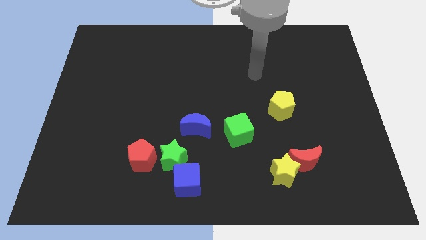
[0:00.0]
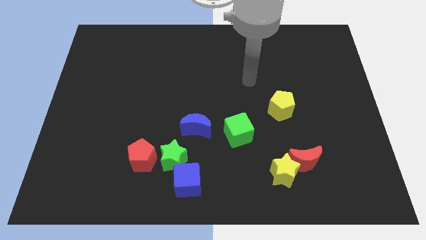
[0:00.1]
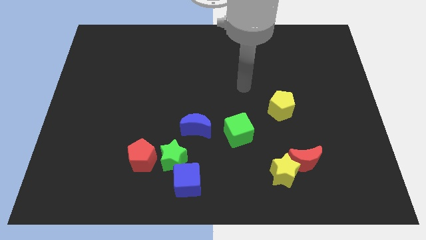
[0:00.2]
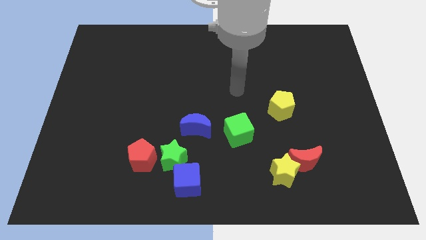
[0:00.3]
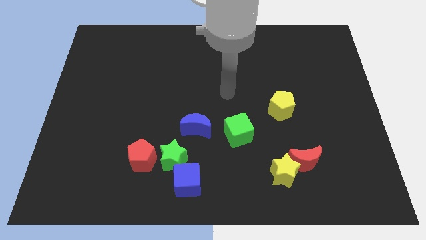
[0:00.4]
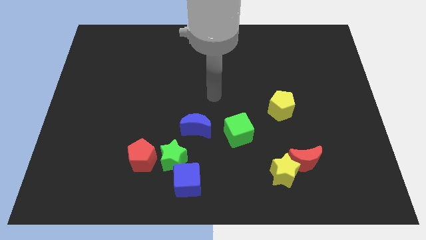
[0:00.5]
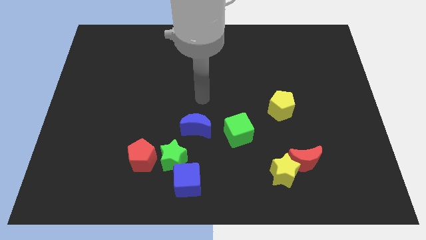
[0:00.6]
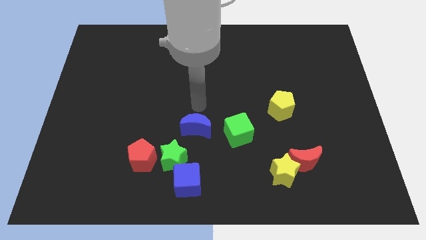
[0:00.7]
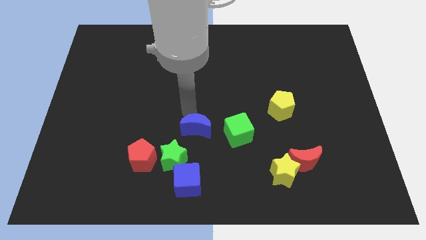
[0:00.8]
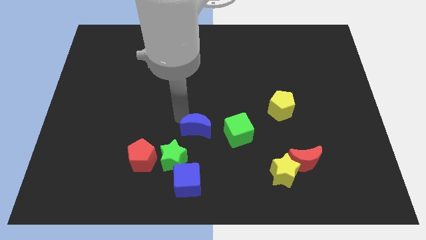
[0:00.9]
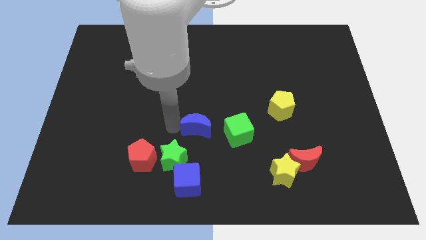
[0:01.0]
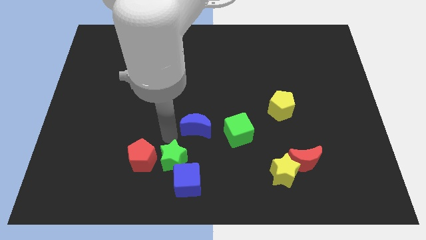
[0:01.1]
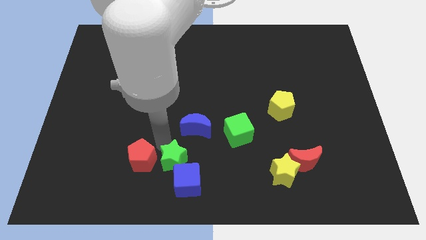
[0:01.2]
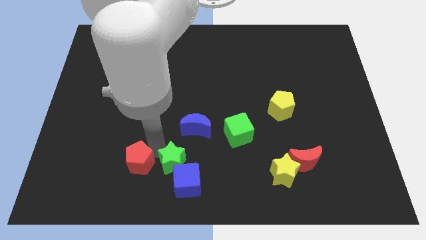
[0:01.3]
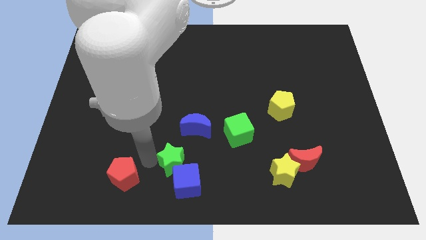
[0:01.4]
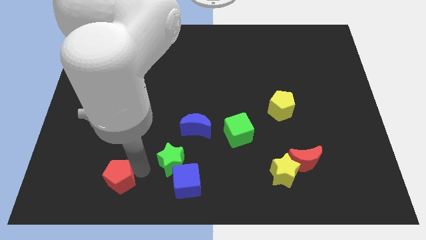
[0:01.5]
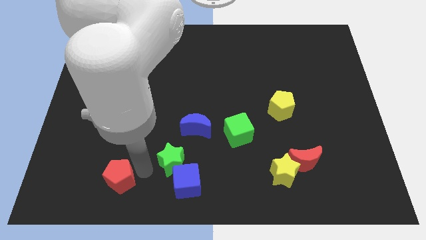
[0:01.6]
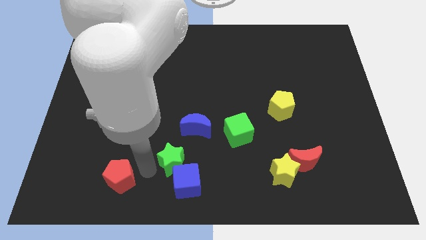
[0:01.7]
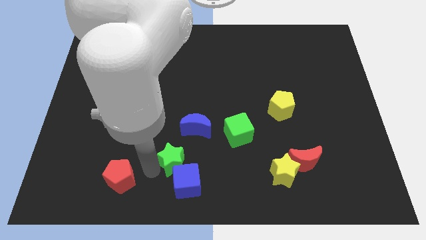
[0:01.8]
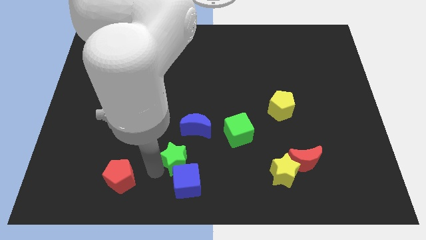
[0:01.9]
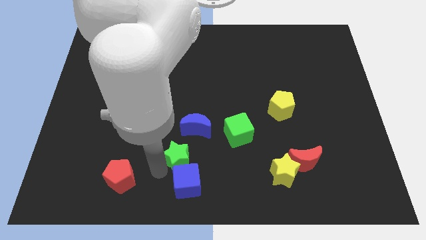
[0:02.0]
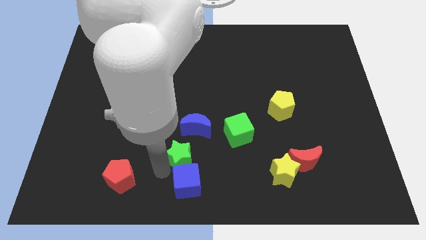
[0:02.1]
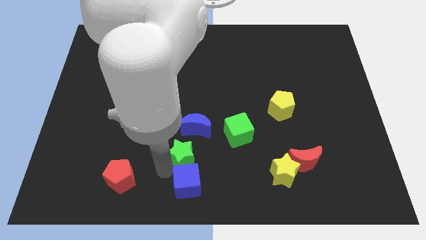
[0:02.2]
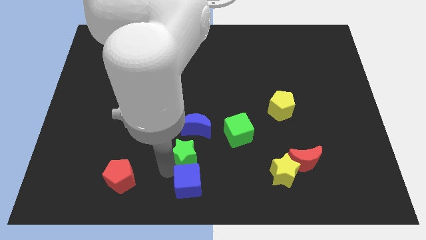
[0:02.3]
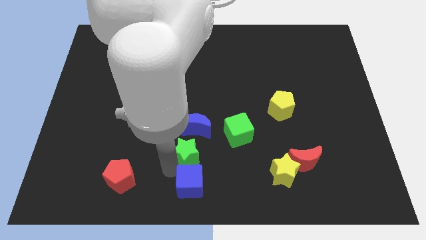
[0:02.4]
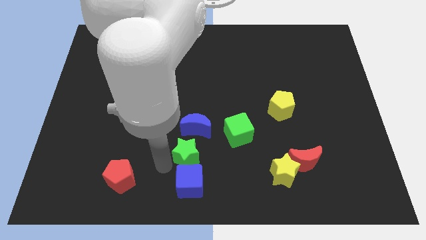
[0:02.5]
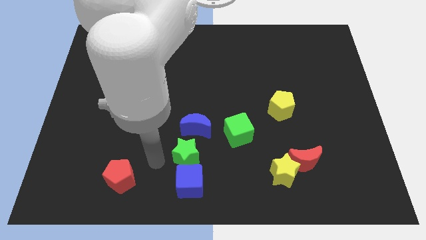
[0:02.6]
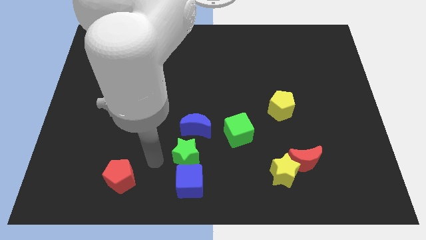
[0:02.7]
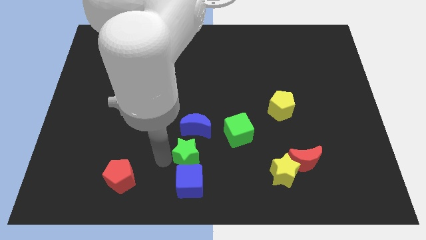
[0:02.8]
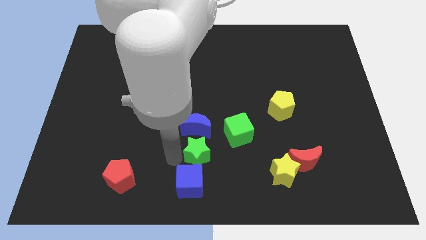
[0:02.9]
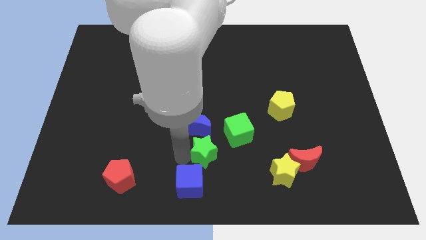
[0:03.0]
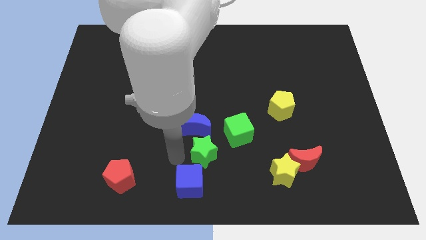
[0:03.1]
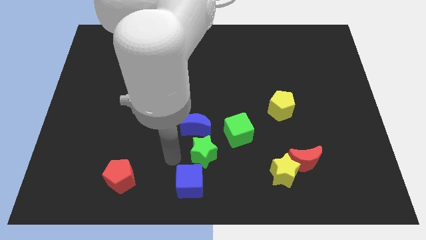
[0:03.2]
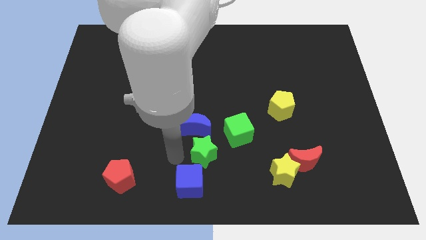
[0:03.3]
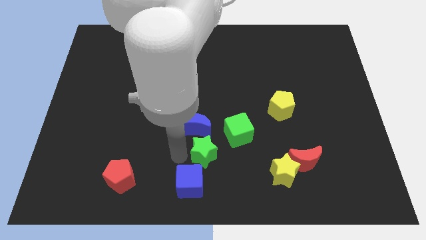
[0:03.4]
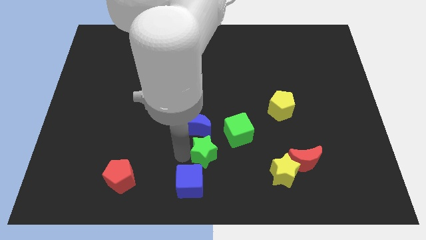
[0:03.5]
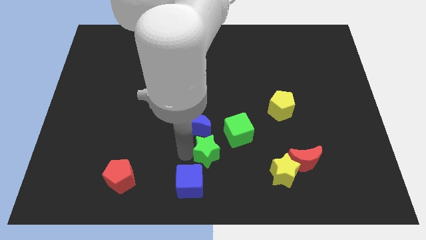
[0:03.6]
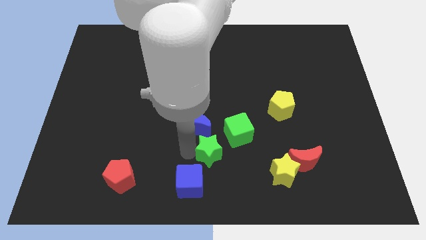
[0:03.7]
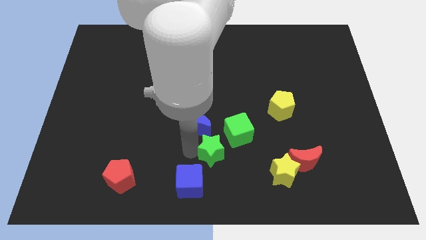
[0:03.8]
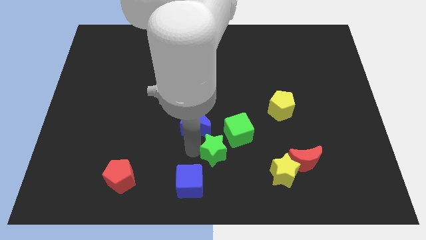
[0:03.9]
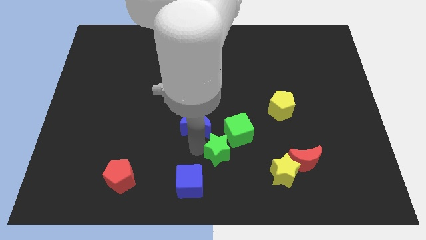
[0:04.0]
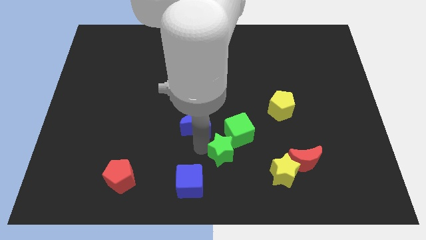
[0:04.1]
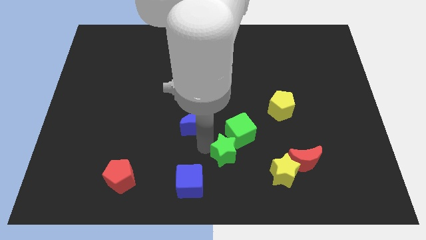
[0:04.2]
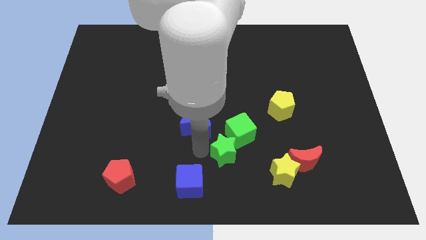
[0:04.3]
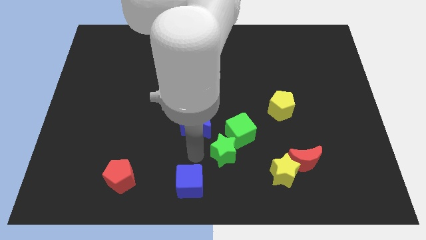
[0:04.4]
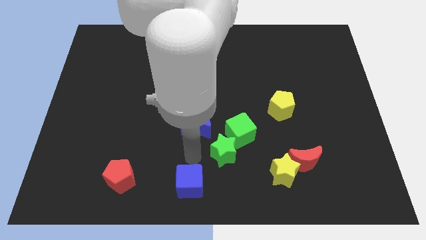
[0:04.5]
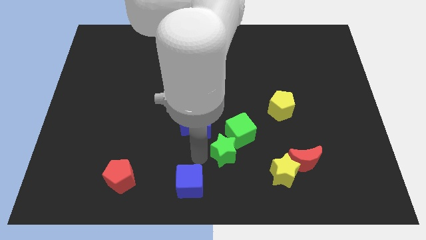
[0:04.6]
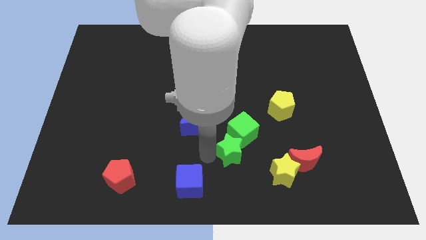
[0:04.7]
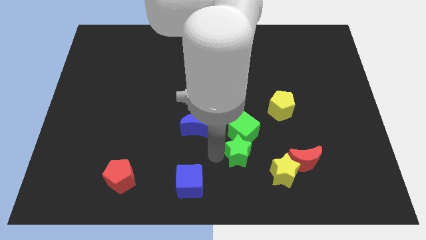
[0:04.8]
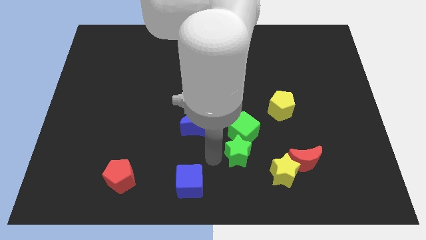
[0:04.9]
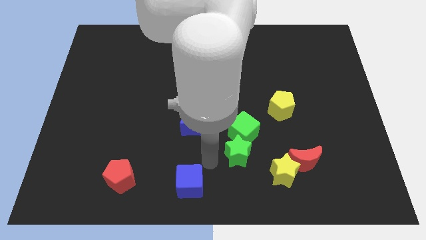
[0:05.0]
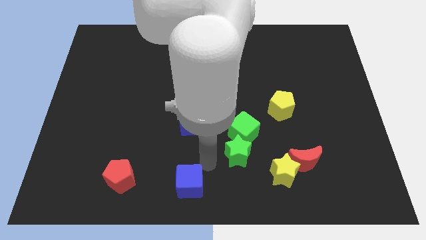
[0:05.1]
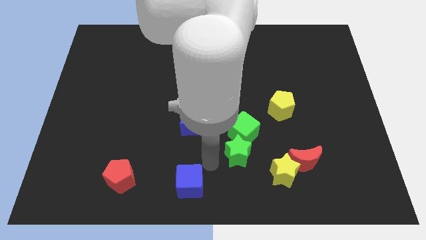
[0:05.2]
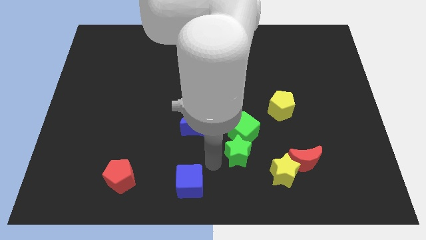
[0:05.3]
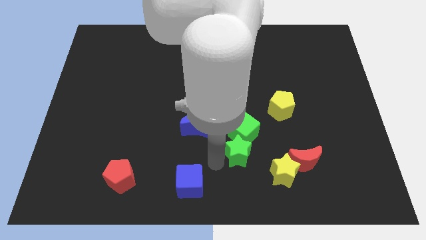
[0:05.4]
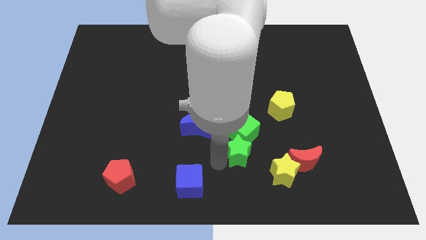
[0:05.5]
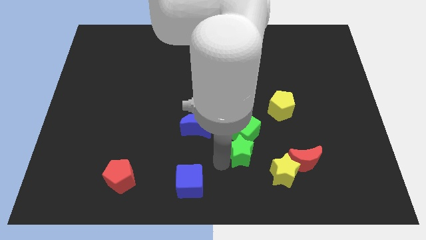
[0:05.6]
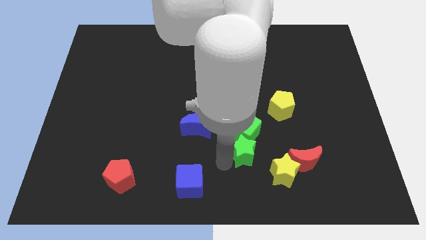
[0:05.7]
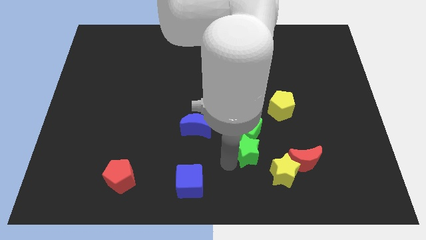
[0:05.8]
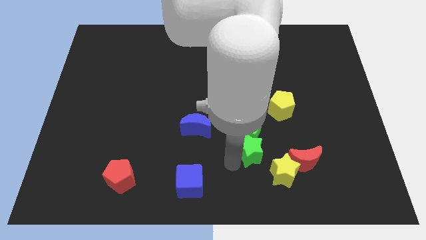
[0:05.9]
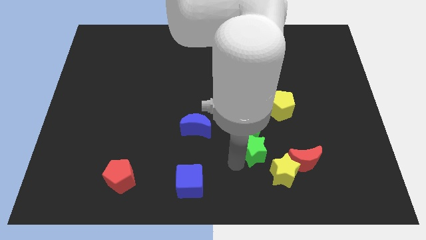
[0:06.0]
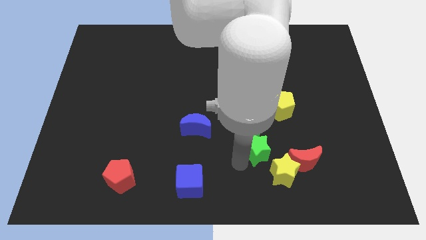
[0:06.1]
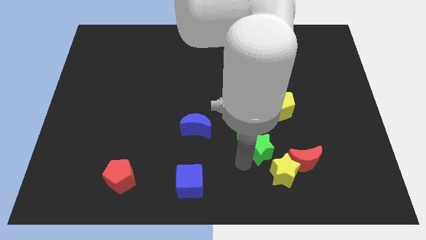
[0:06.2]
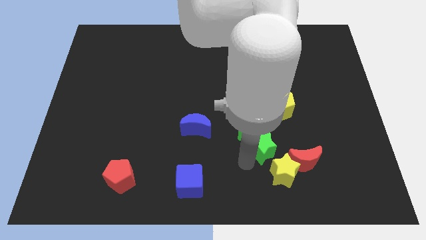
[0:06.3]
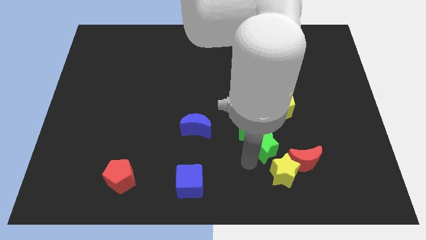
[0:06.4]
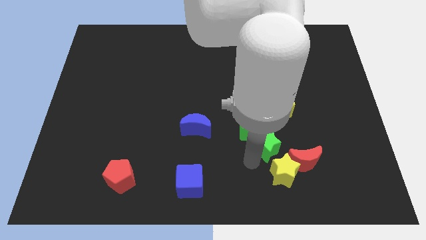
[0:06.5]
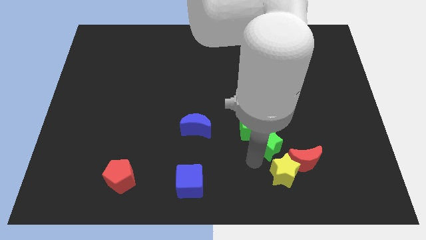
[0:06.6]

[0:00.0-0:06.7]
slide the green star right

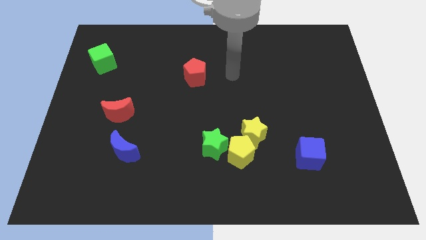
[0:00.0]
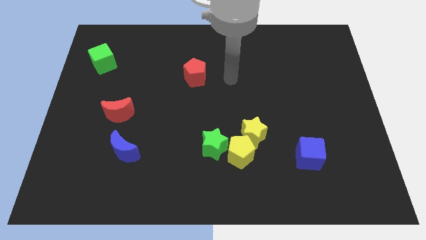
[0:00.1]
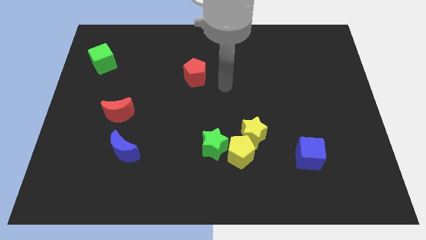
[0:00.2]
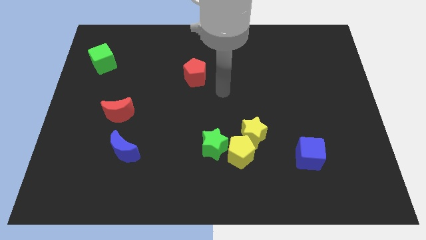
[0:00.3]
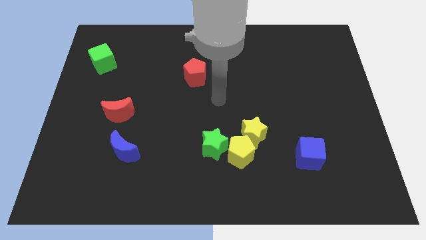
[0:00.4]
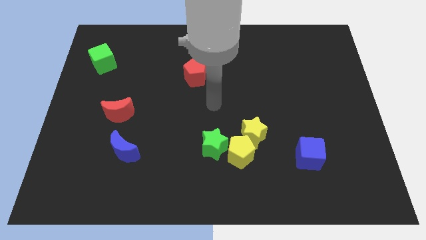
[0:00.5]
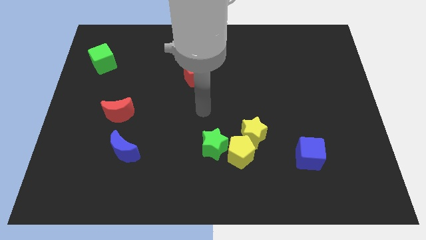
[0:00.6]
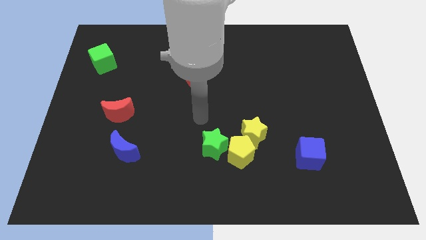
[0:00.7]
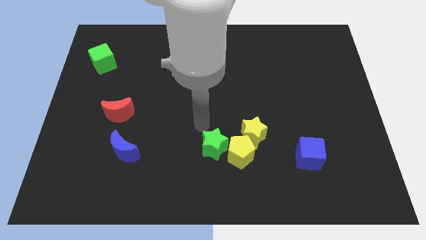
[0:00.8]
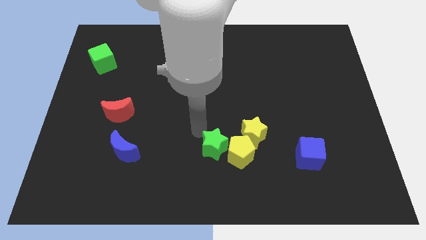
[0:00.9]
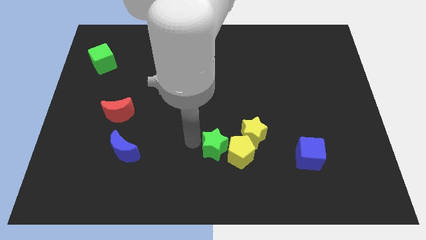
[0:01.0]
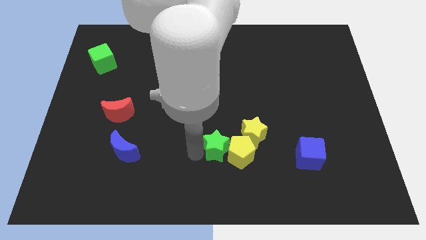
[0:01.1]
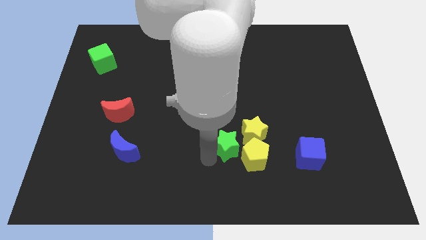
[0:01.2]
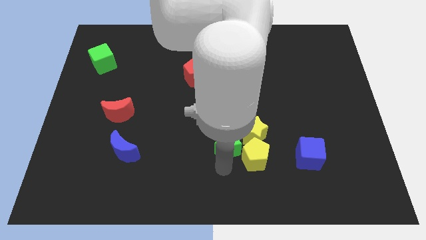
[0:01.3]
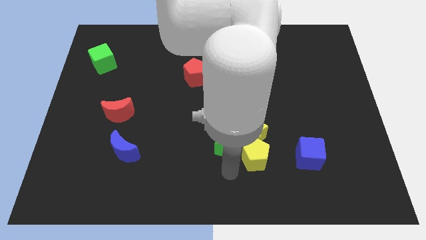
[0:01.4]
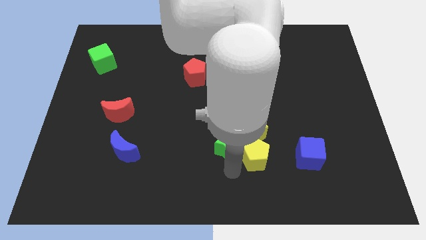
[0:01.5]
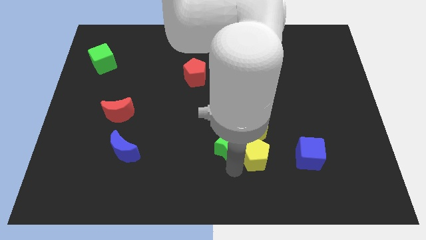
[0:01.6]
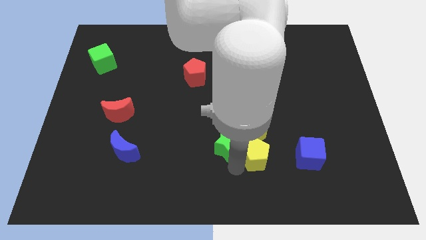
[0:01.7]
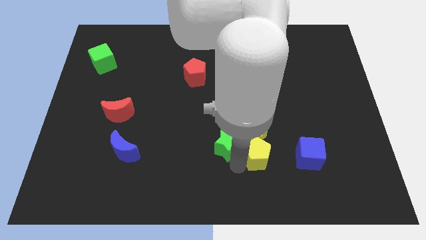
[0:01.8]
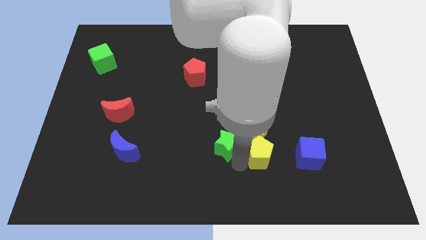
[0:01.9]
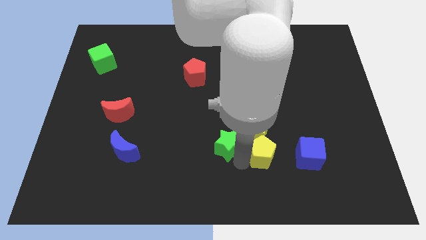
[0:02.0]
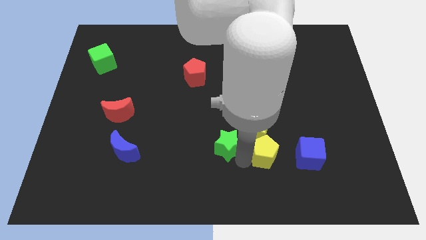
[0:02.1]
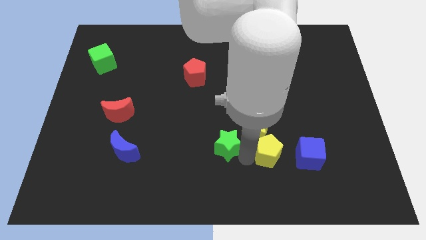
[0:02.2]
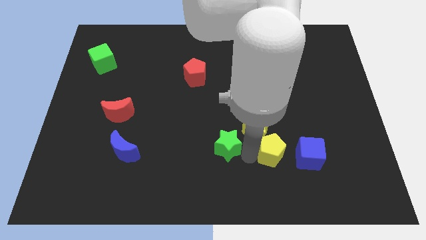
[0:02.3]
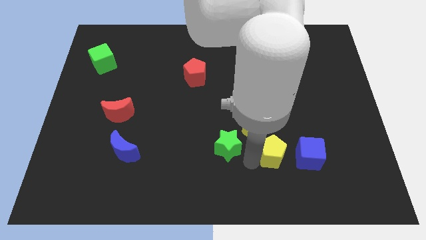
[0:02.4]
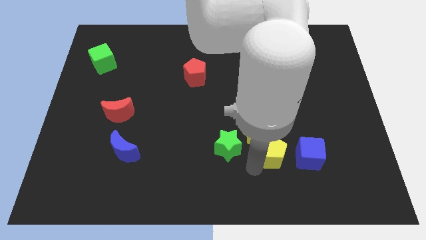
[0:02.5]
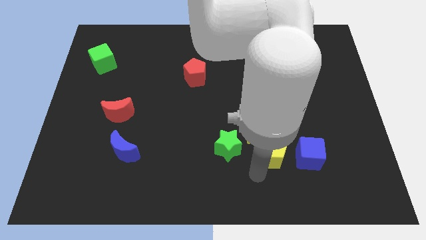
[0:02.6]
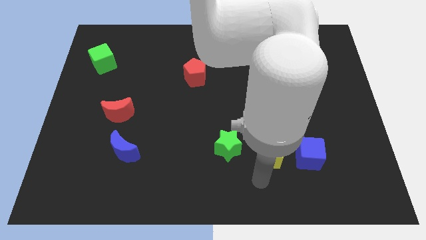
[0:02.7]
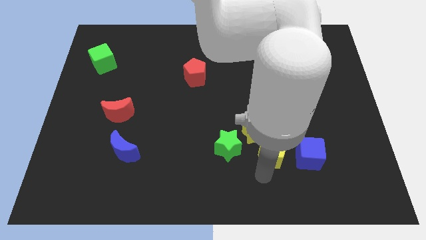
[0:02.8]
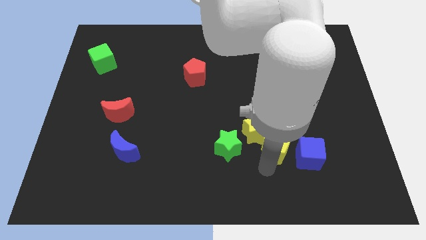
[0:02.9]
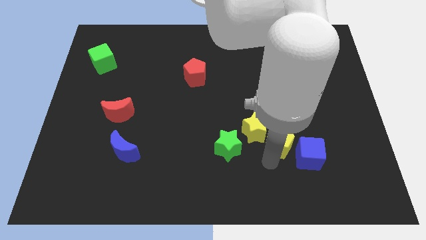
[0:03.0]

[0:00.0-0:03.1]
slightly push the yellow pentagon up and then to the right
